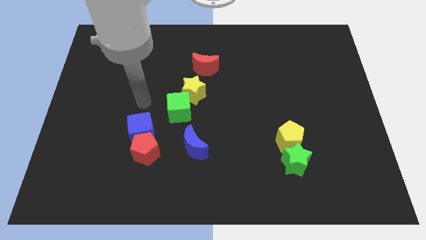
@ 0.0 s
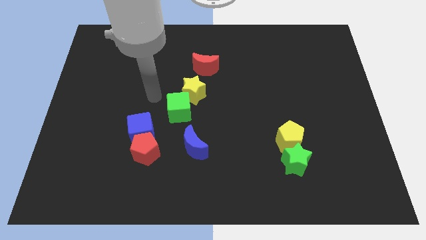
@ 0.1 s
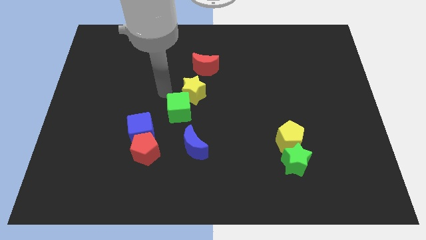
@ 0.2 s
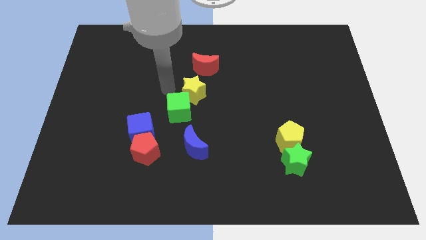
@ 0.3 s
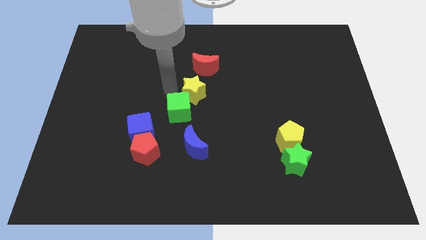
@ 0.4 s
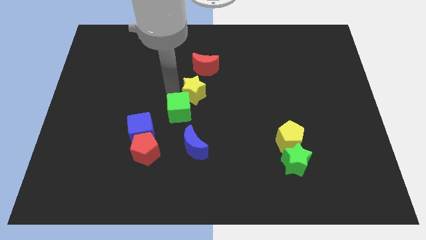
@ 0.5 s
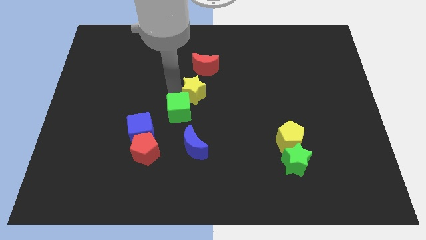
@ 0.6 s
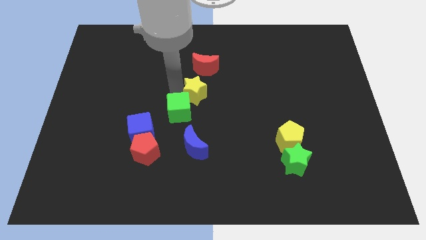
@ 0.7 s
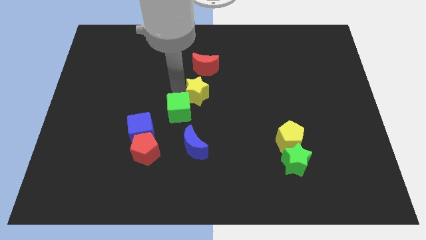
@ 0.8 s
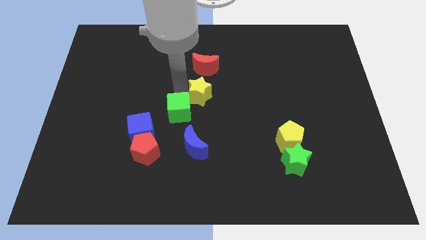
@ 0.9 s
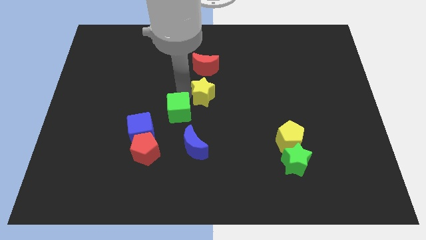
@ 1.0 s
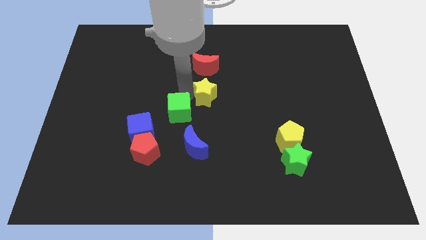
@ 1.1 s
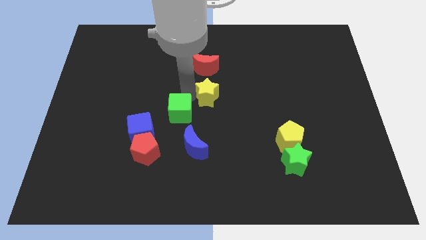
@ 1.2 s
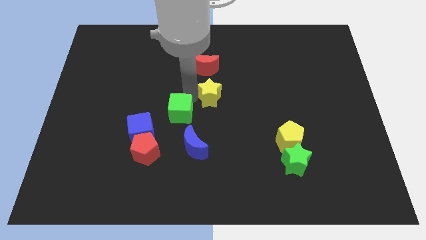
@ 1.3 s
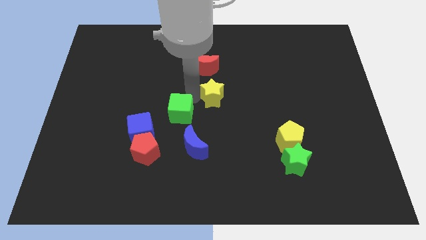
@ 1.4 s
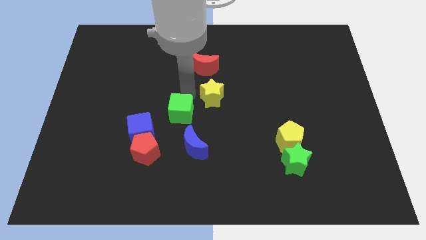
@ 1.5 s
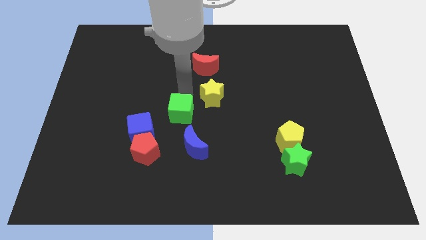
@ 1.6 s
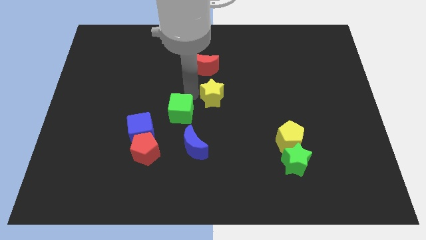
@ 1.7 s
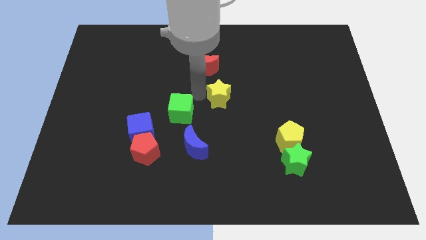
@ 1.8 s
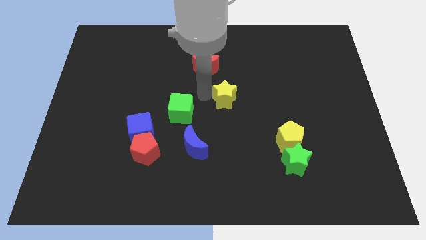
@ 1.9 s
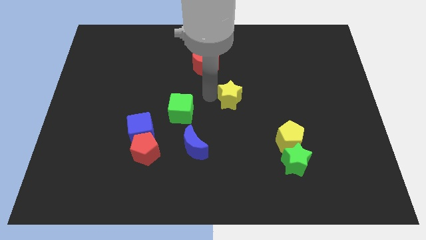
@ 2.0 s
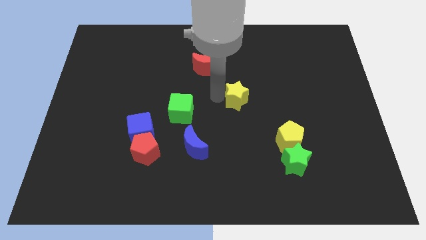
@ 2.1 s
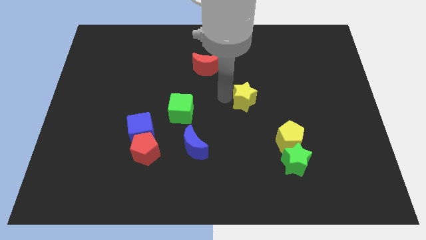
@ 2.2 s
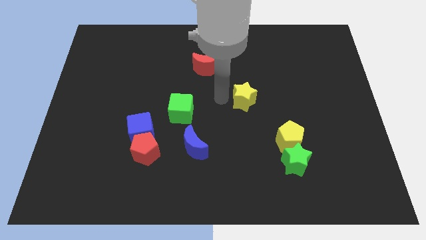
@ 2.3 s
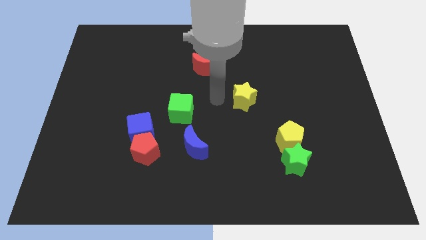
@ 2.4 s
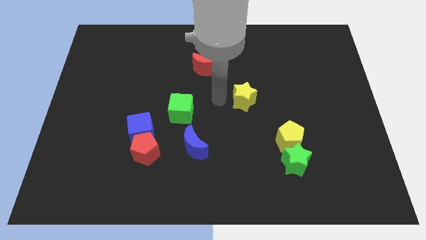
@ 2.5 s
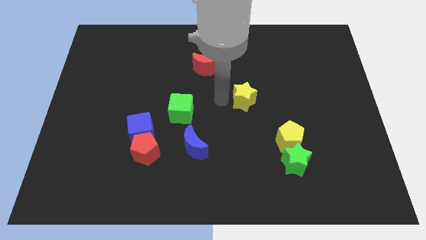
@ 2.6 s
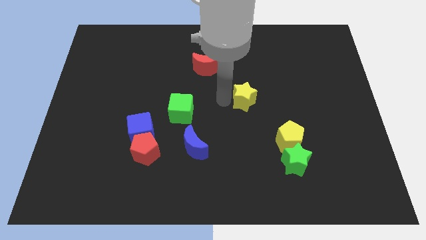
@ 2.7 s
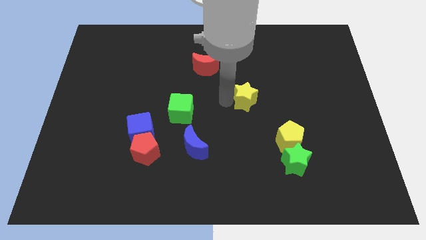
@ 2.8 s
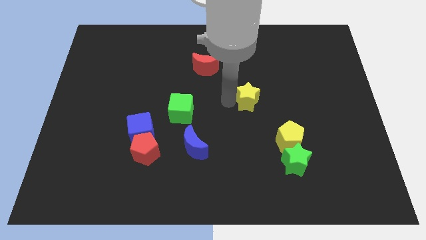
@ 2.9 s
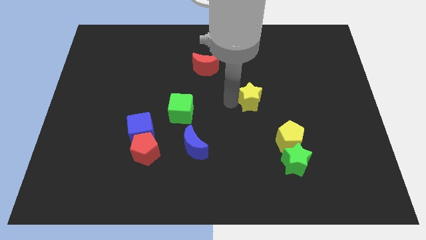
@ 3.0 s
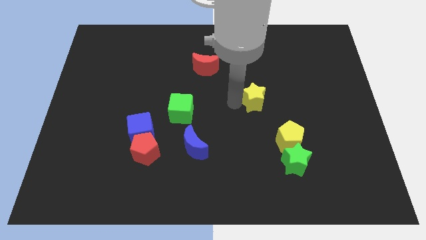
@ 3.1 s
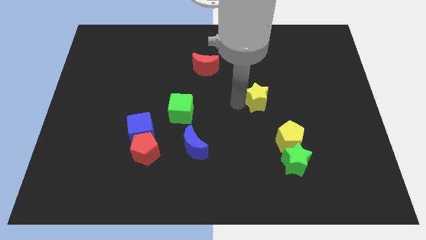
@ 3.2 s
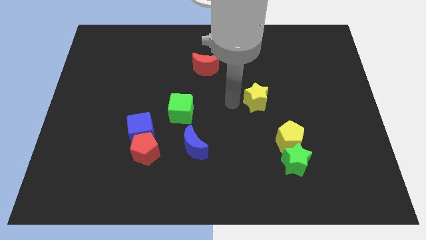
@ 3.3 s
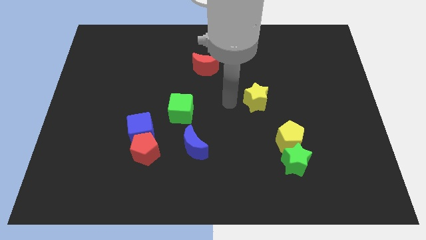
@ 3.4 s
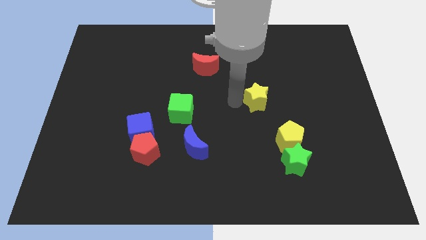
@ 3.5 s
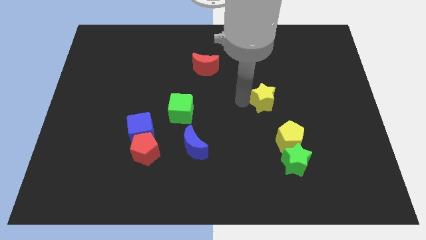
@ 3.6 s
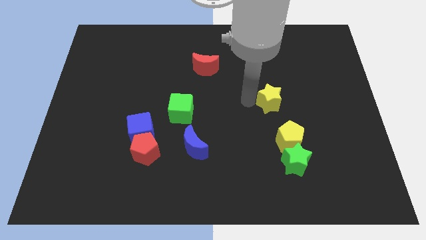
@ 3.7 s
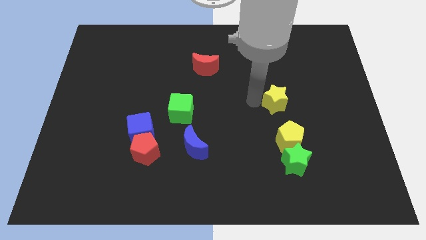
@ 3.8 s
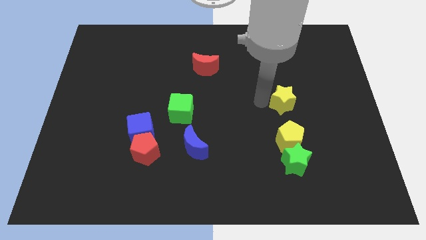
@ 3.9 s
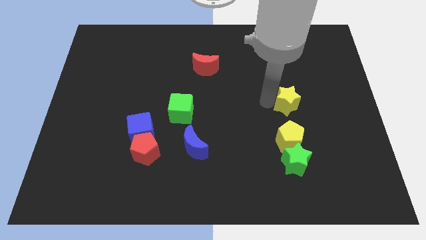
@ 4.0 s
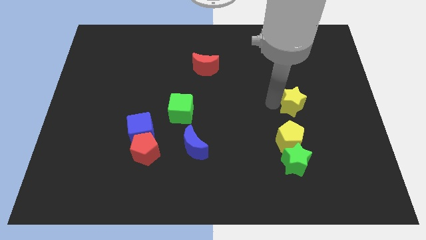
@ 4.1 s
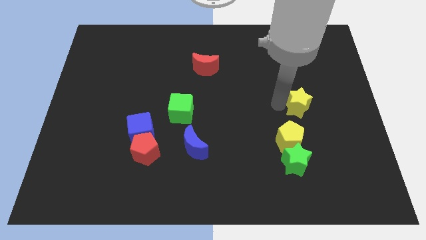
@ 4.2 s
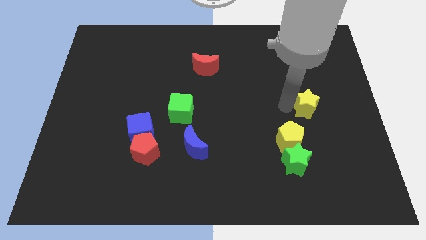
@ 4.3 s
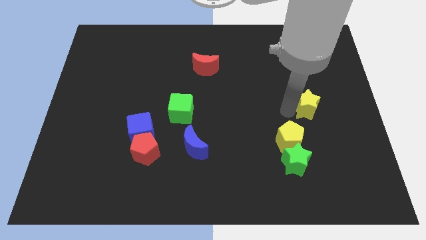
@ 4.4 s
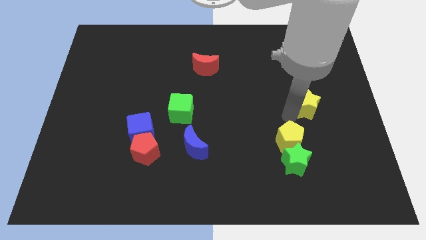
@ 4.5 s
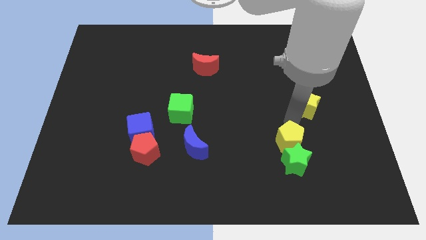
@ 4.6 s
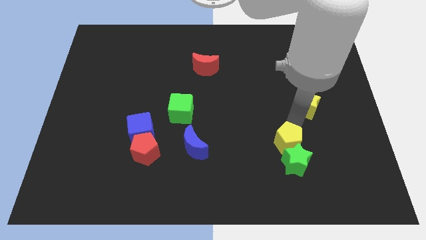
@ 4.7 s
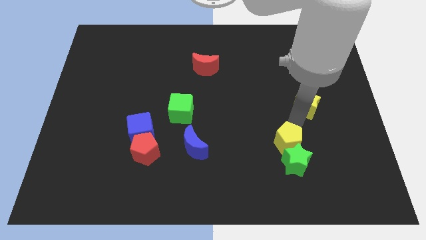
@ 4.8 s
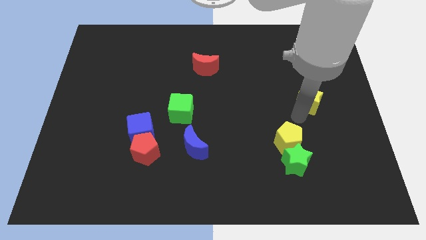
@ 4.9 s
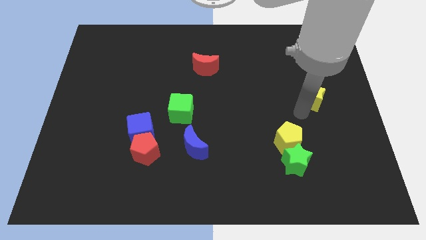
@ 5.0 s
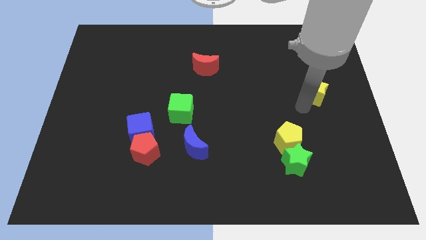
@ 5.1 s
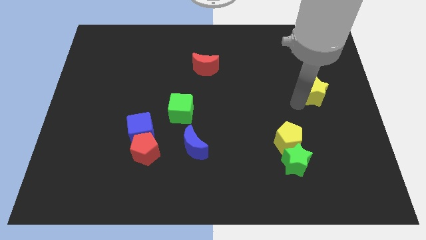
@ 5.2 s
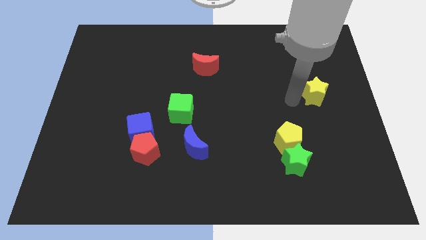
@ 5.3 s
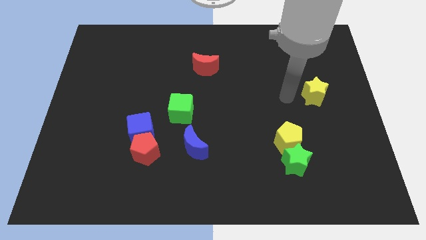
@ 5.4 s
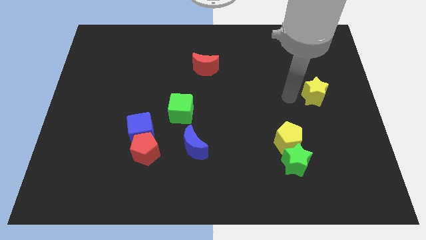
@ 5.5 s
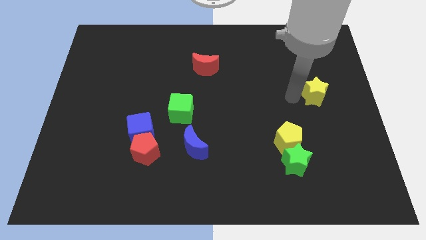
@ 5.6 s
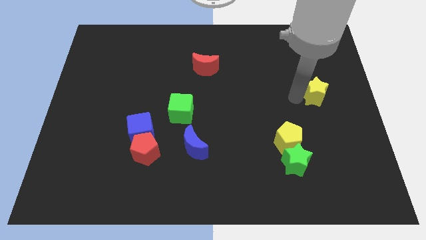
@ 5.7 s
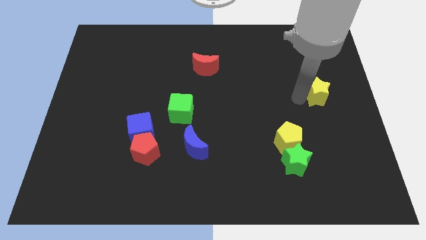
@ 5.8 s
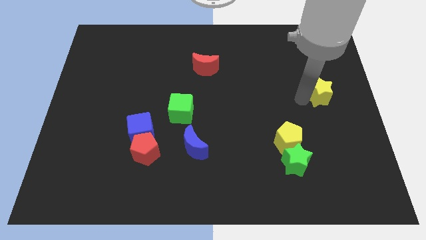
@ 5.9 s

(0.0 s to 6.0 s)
push the yellow star to the right side
